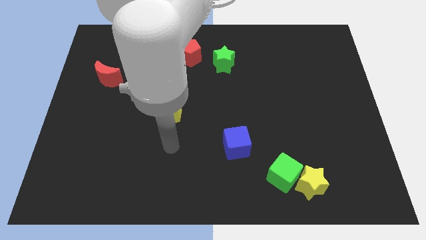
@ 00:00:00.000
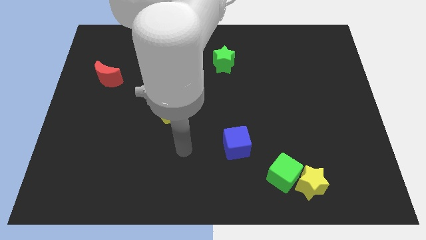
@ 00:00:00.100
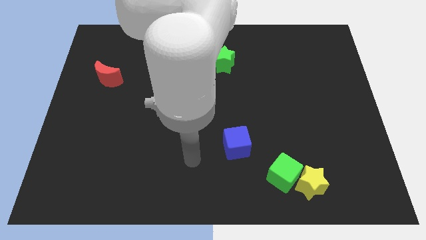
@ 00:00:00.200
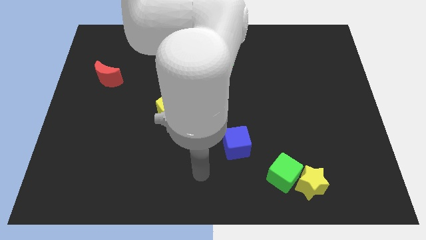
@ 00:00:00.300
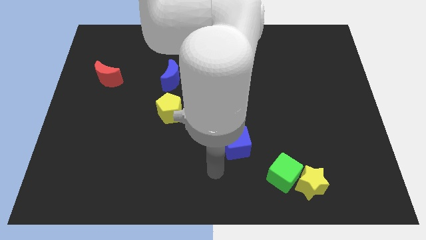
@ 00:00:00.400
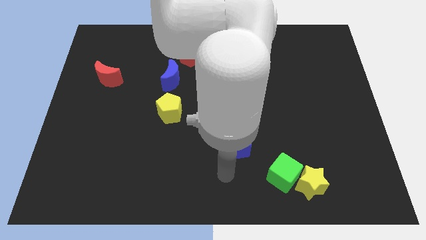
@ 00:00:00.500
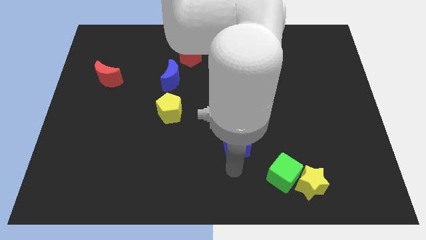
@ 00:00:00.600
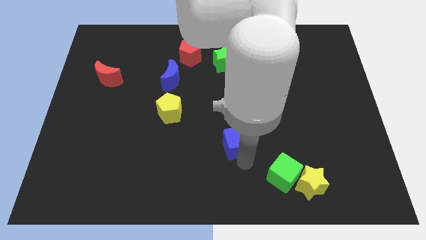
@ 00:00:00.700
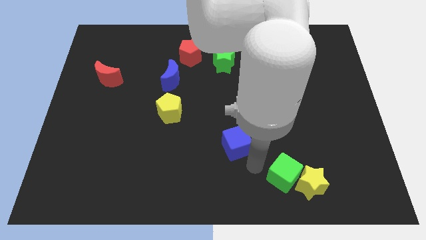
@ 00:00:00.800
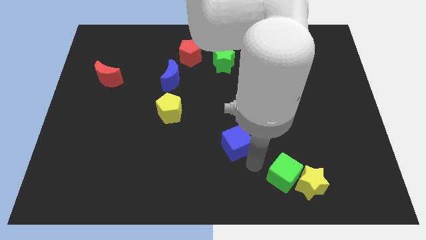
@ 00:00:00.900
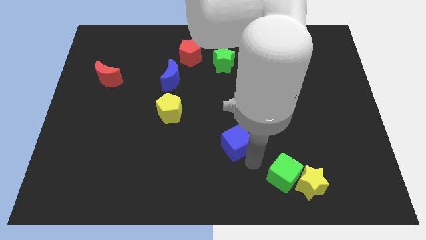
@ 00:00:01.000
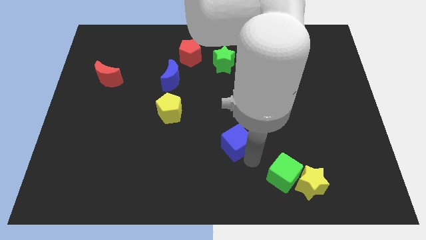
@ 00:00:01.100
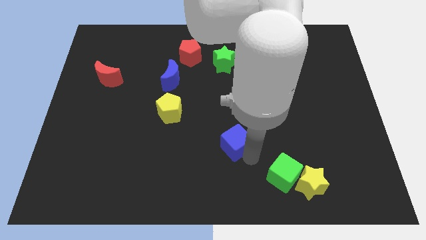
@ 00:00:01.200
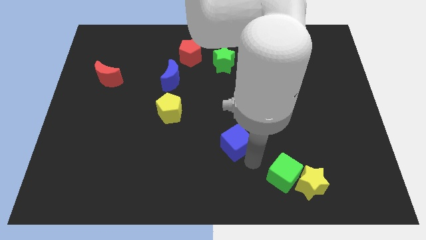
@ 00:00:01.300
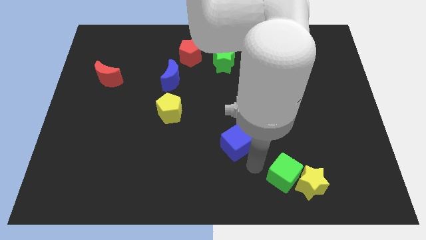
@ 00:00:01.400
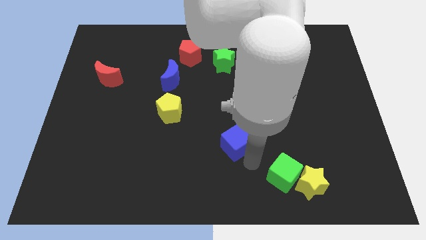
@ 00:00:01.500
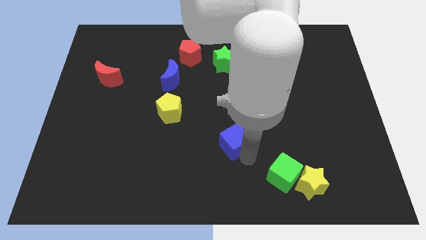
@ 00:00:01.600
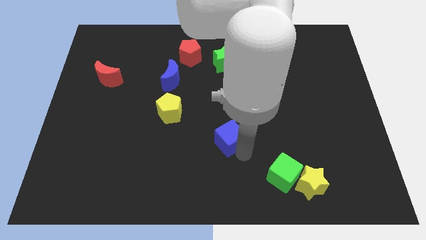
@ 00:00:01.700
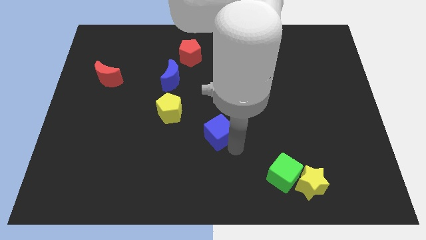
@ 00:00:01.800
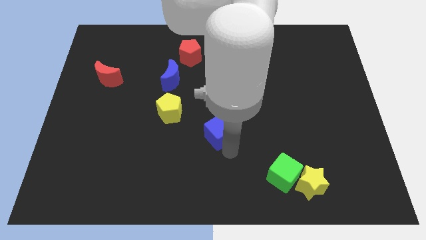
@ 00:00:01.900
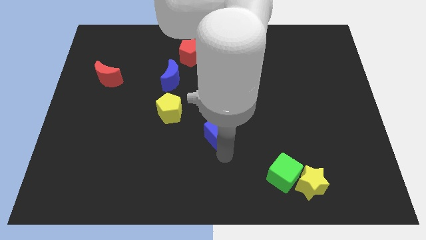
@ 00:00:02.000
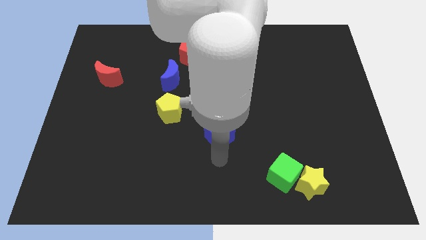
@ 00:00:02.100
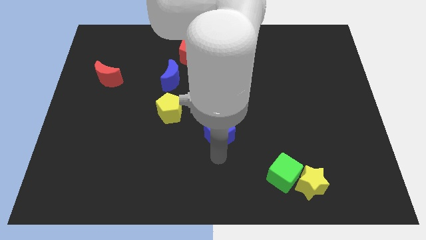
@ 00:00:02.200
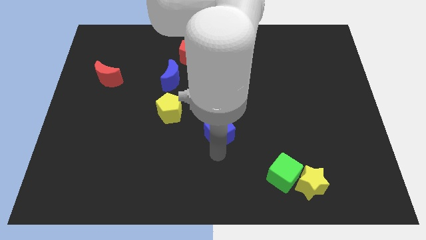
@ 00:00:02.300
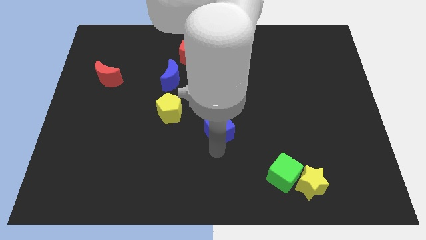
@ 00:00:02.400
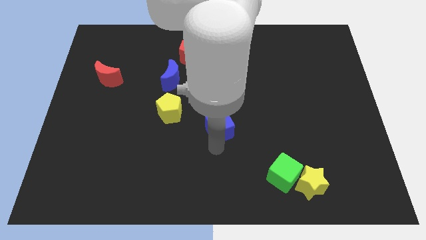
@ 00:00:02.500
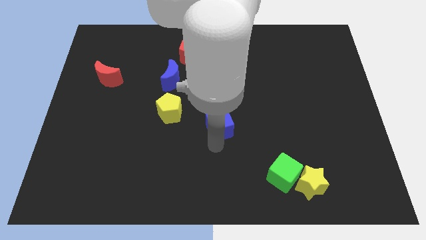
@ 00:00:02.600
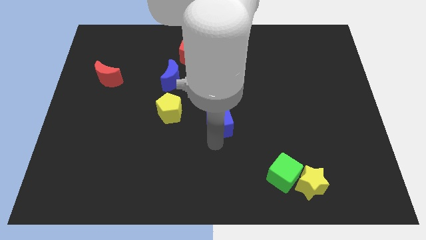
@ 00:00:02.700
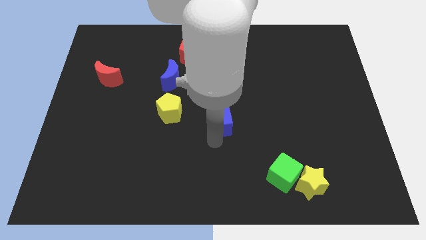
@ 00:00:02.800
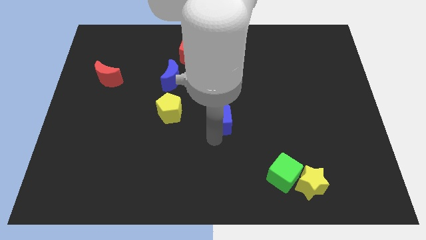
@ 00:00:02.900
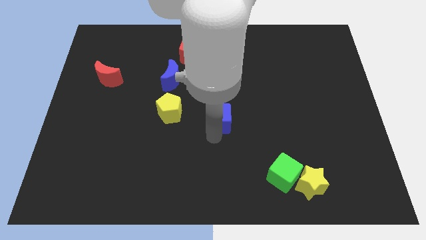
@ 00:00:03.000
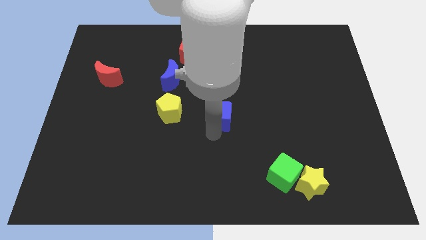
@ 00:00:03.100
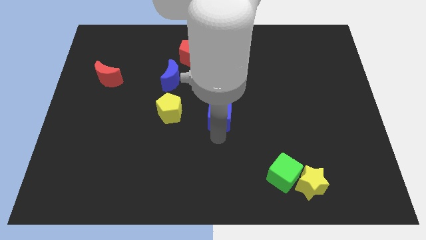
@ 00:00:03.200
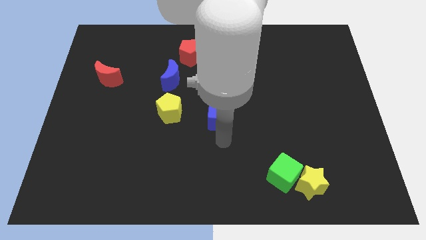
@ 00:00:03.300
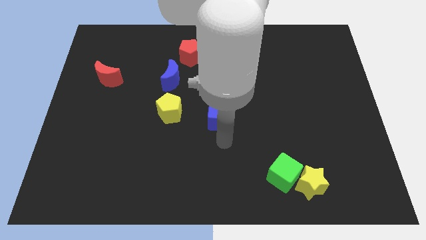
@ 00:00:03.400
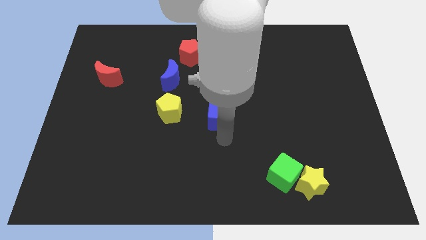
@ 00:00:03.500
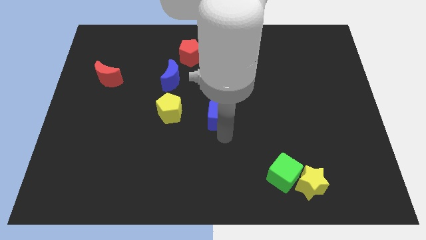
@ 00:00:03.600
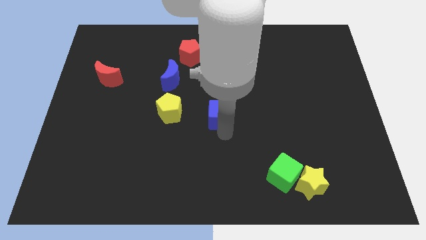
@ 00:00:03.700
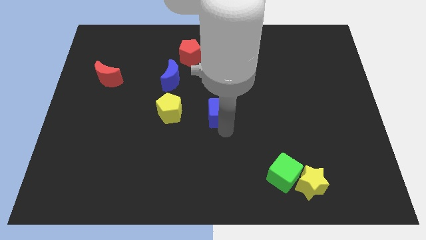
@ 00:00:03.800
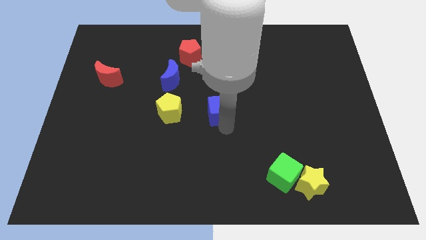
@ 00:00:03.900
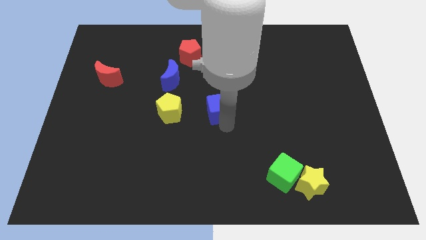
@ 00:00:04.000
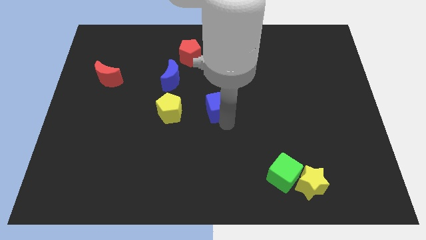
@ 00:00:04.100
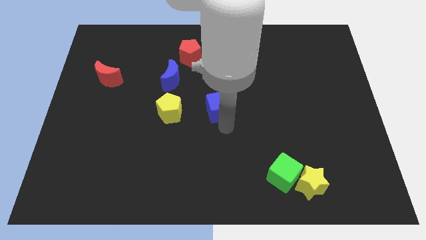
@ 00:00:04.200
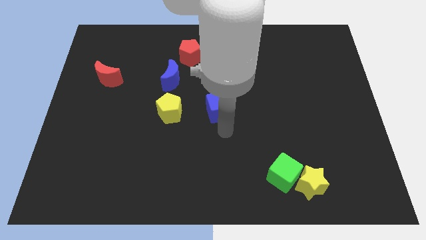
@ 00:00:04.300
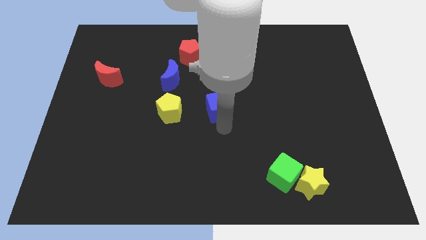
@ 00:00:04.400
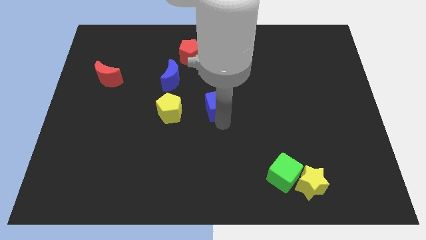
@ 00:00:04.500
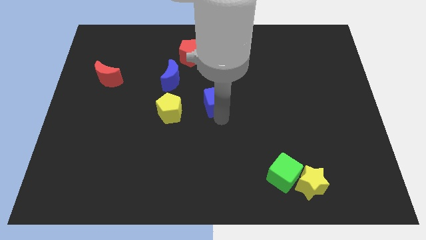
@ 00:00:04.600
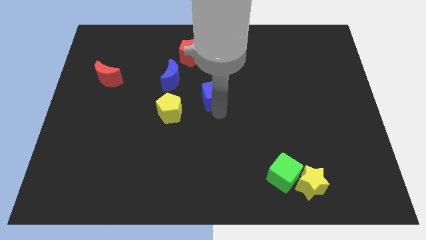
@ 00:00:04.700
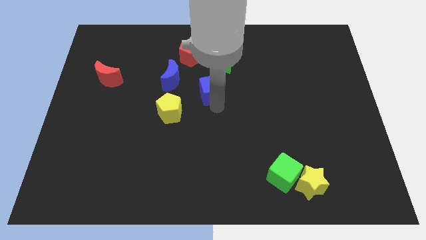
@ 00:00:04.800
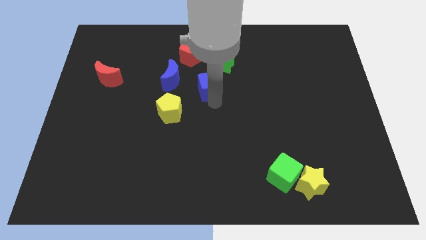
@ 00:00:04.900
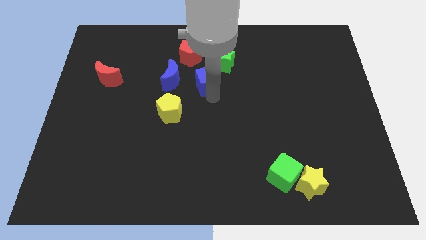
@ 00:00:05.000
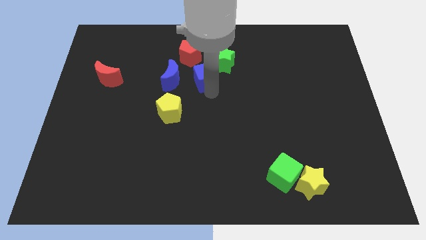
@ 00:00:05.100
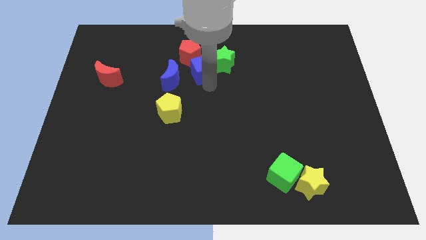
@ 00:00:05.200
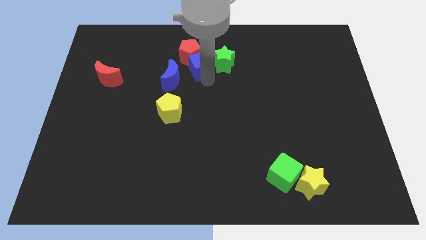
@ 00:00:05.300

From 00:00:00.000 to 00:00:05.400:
slide the blue cube to the red pentagon

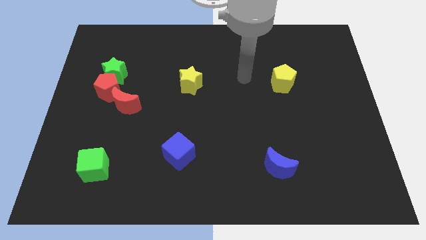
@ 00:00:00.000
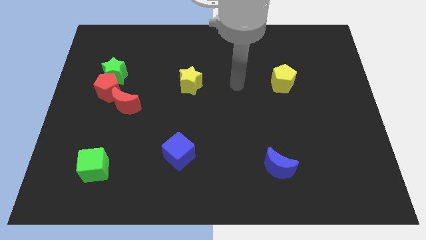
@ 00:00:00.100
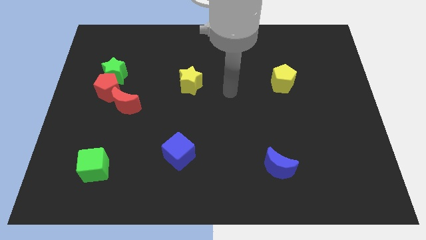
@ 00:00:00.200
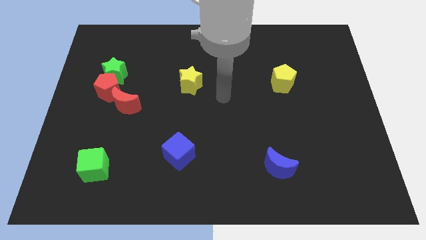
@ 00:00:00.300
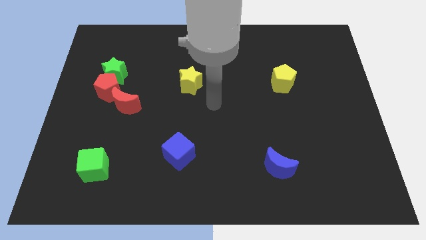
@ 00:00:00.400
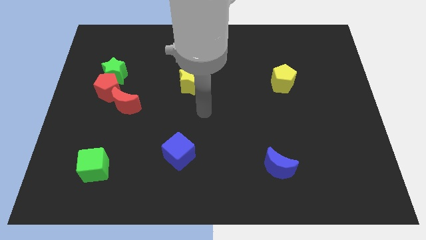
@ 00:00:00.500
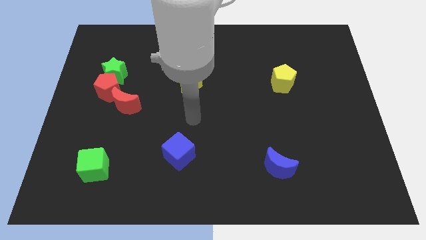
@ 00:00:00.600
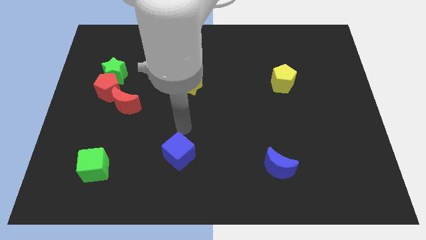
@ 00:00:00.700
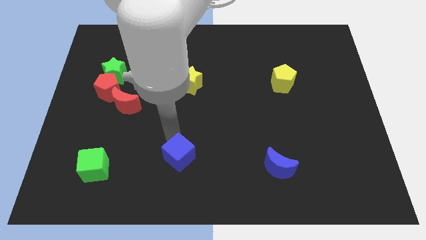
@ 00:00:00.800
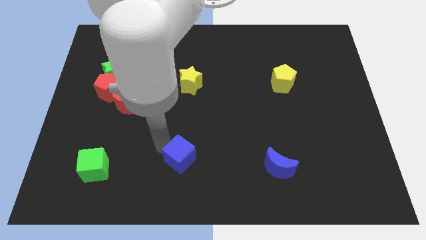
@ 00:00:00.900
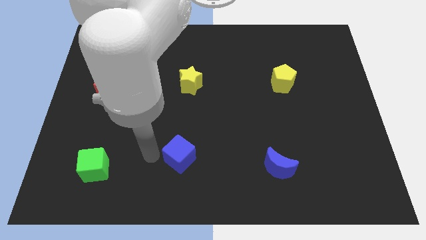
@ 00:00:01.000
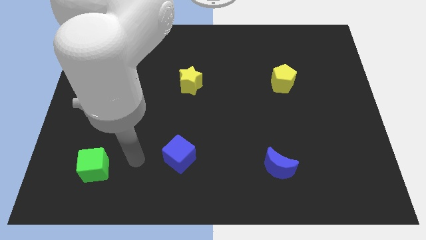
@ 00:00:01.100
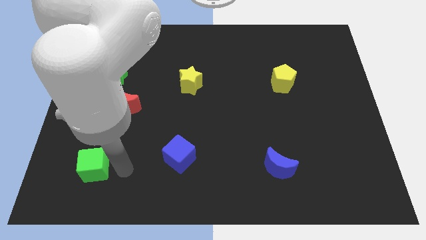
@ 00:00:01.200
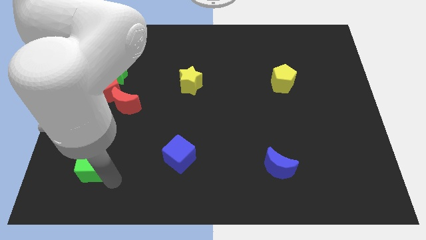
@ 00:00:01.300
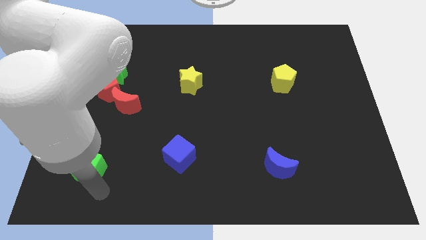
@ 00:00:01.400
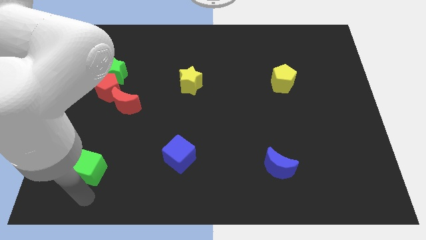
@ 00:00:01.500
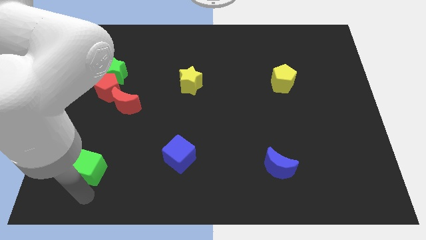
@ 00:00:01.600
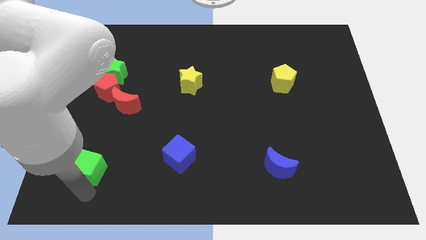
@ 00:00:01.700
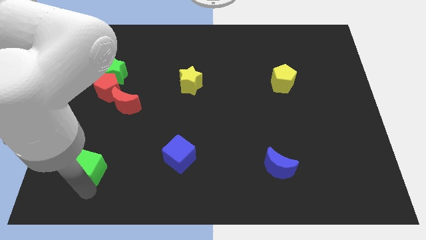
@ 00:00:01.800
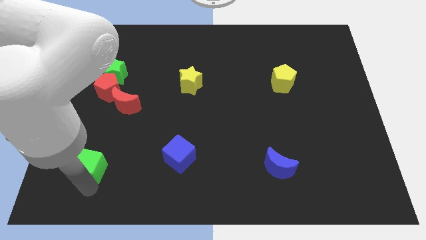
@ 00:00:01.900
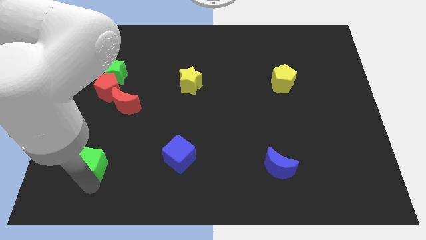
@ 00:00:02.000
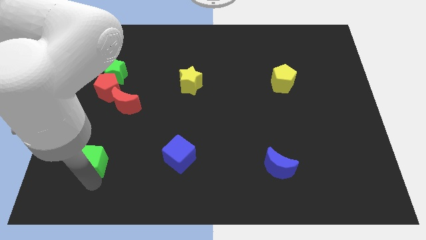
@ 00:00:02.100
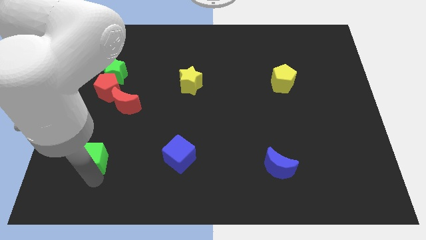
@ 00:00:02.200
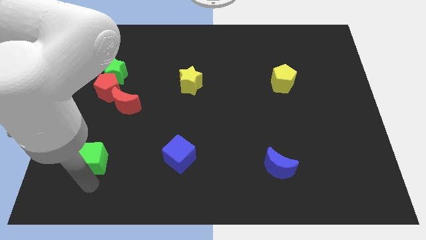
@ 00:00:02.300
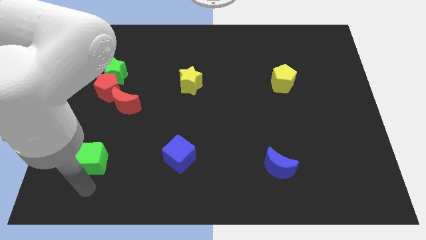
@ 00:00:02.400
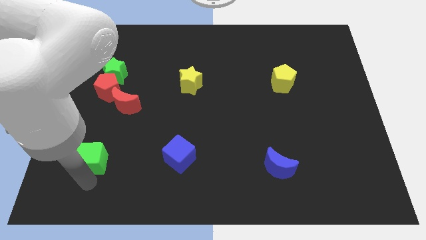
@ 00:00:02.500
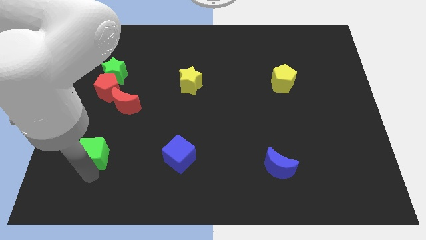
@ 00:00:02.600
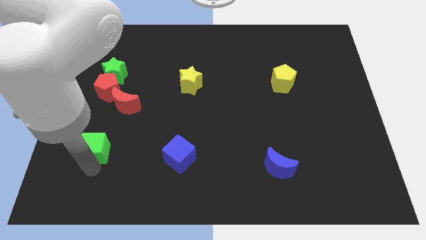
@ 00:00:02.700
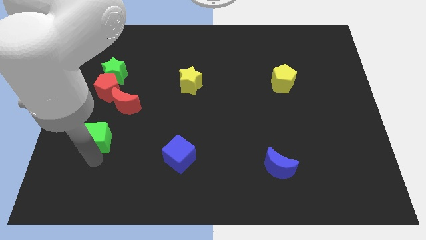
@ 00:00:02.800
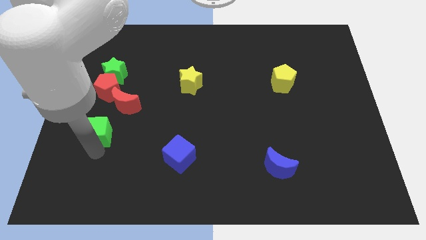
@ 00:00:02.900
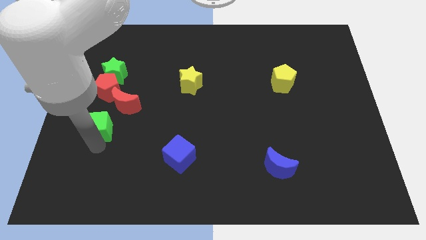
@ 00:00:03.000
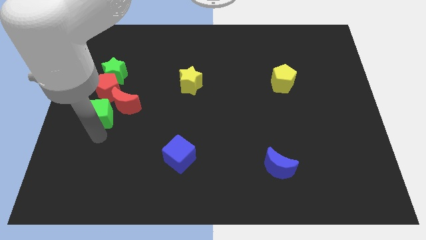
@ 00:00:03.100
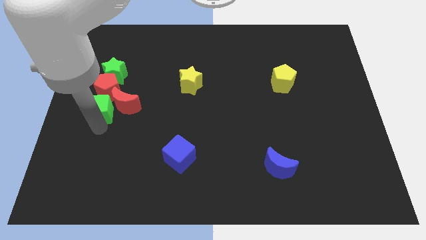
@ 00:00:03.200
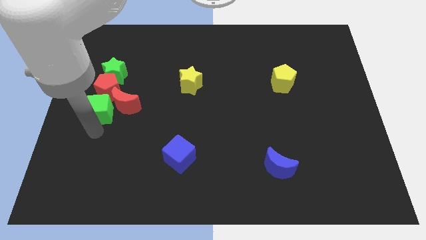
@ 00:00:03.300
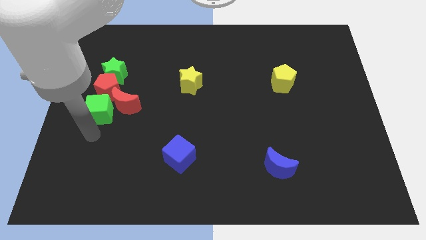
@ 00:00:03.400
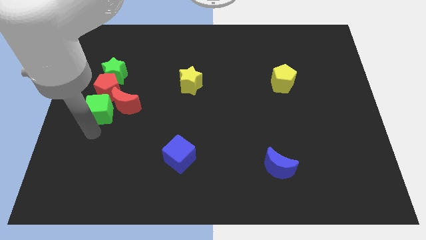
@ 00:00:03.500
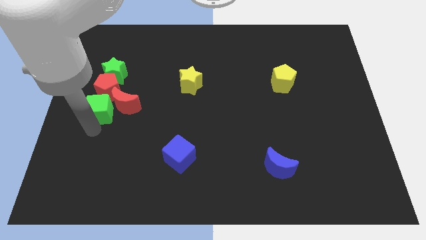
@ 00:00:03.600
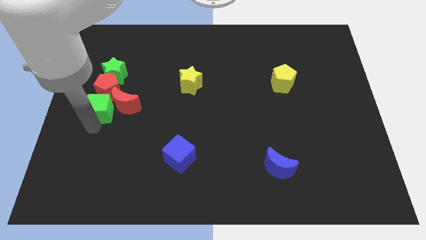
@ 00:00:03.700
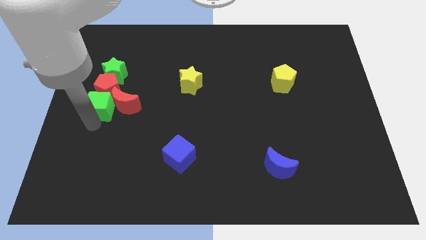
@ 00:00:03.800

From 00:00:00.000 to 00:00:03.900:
slide the green cube towards the red pentagon
